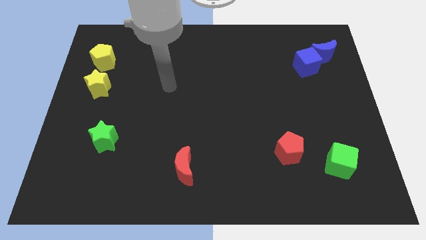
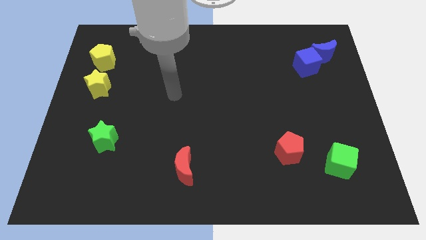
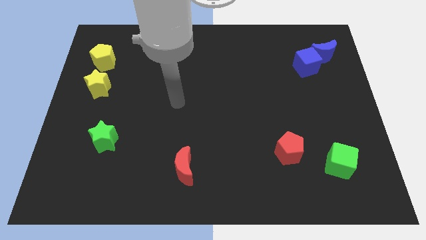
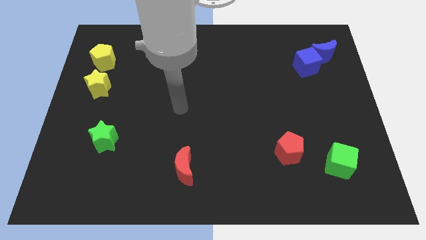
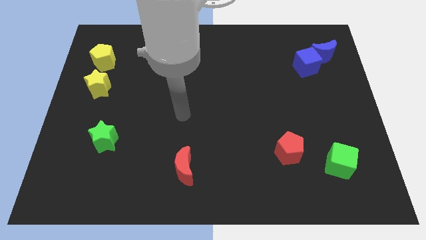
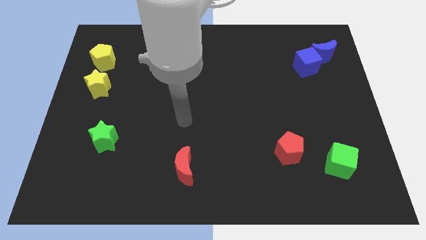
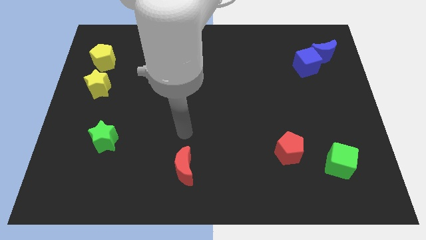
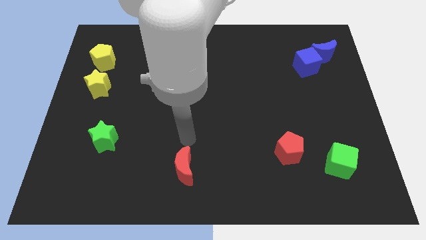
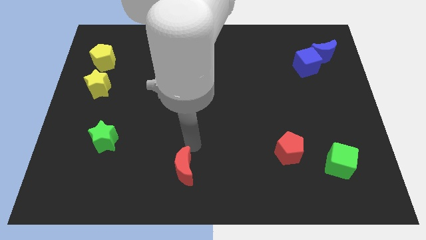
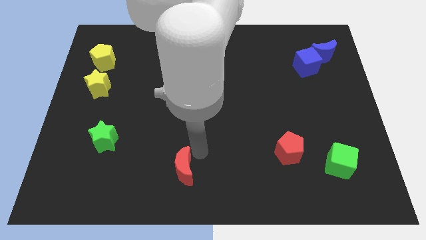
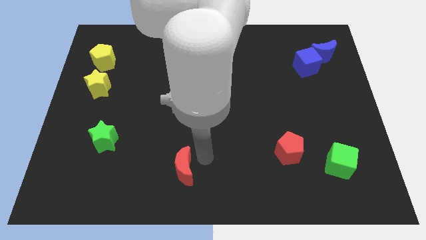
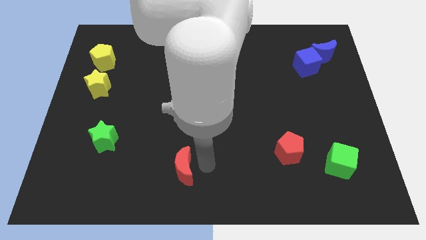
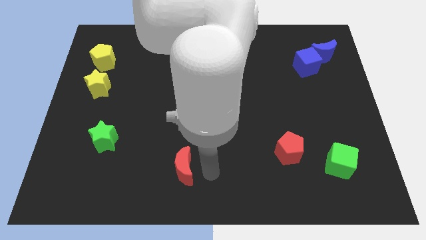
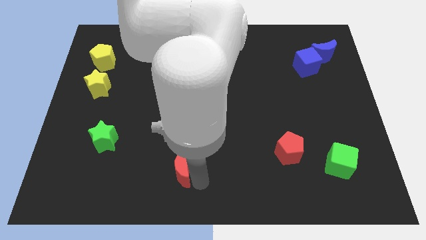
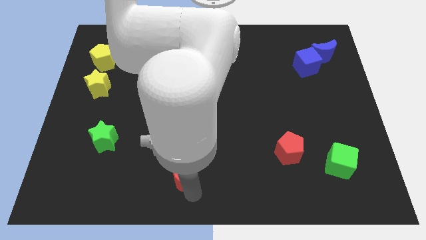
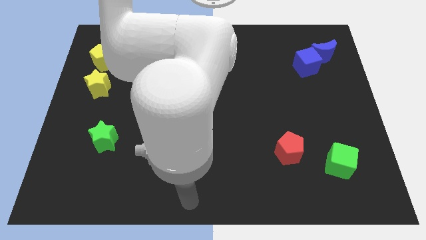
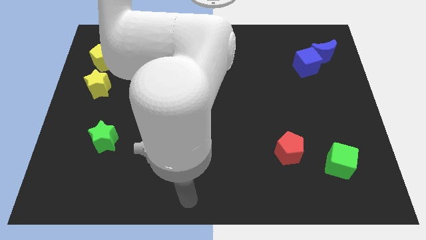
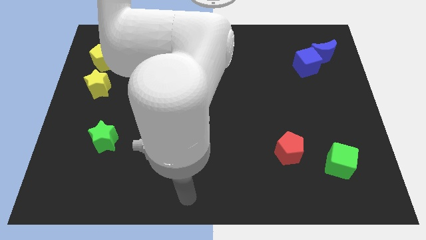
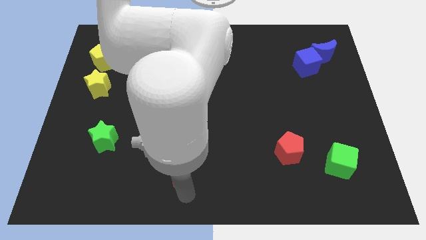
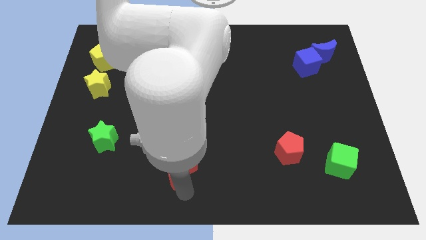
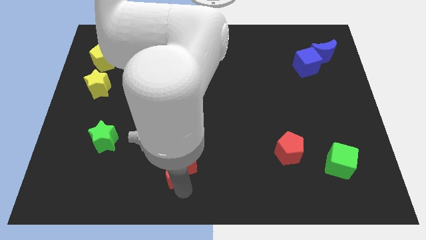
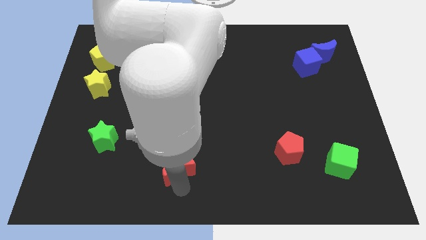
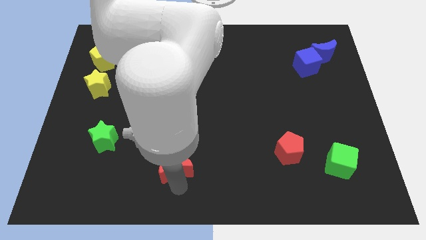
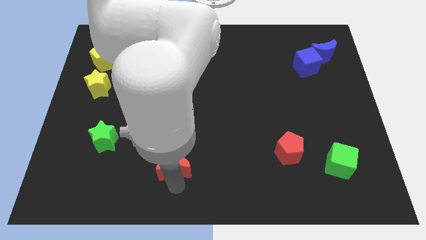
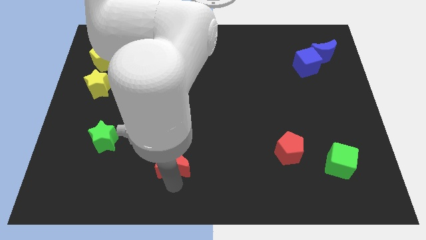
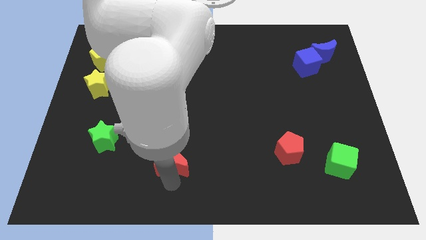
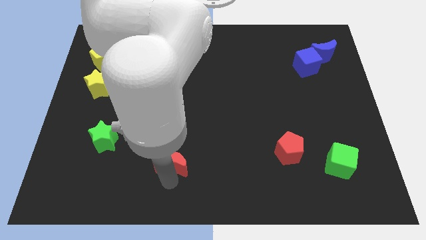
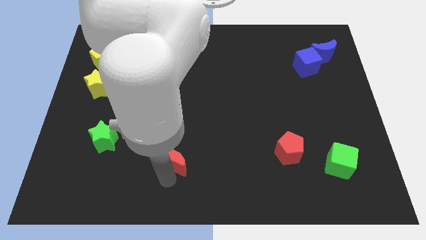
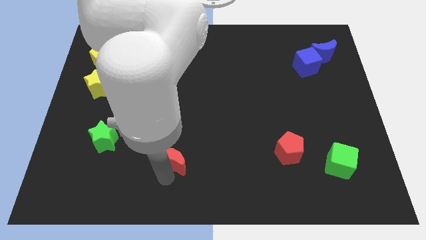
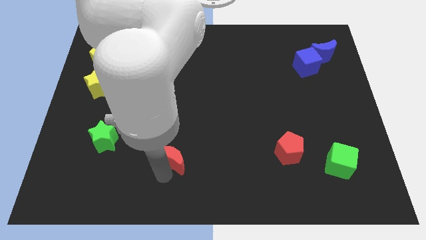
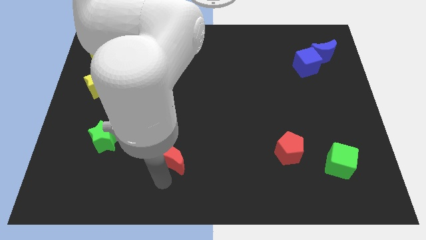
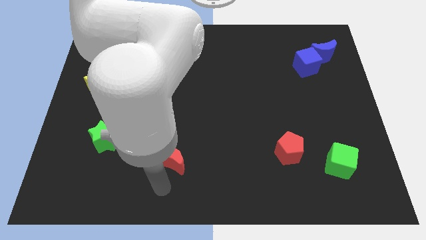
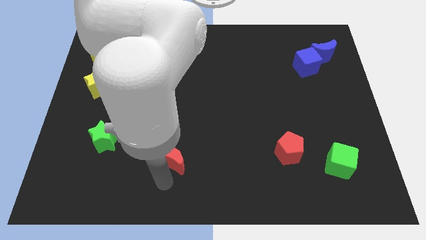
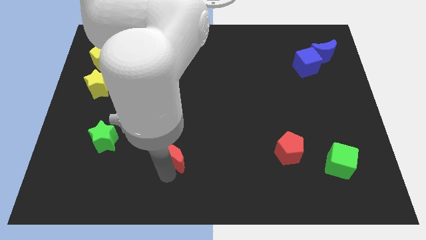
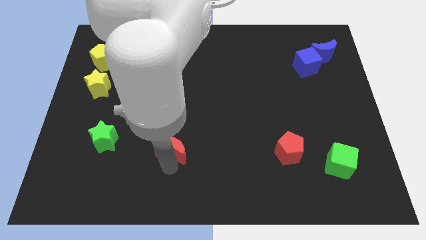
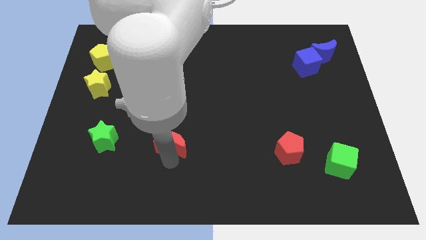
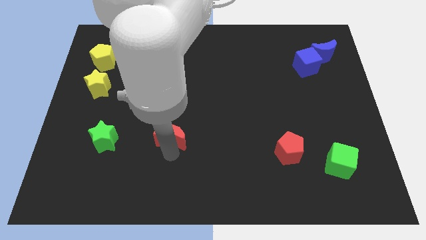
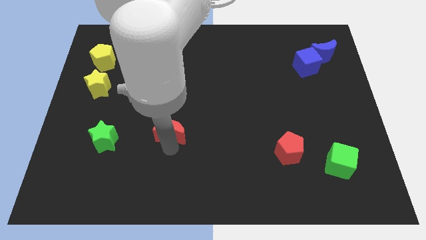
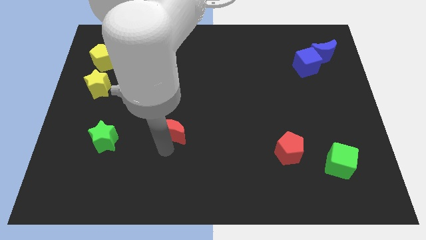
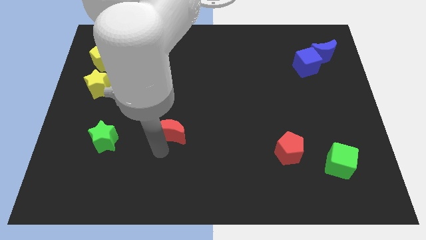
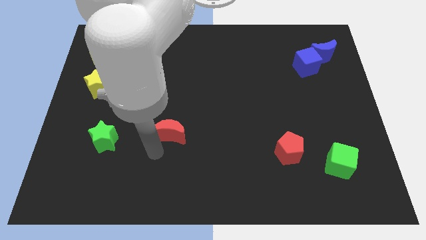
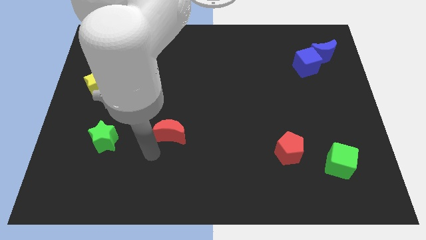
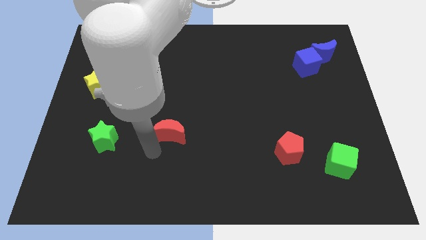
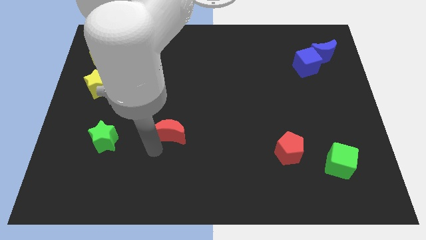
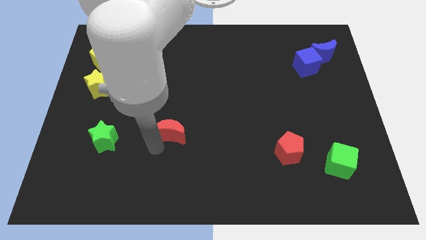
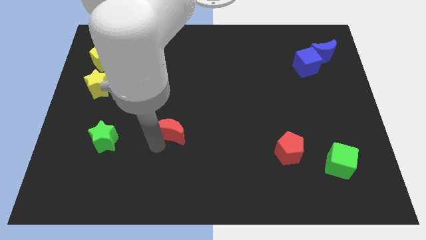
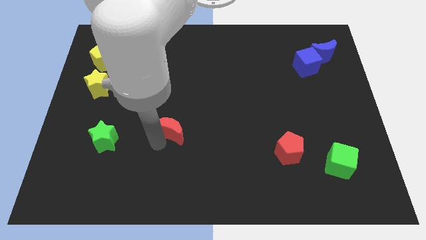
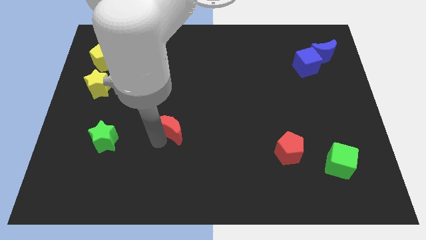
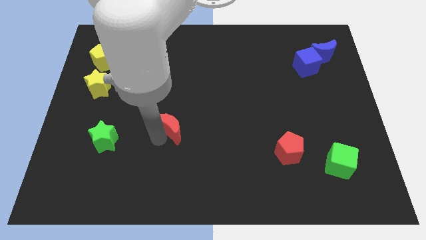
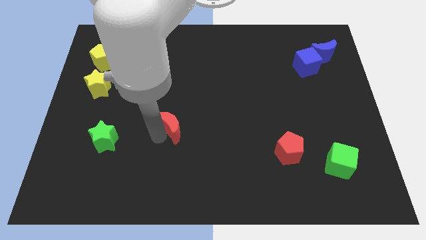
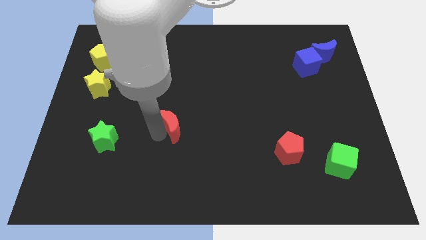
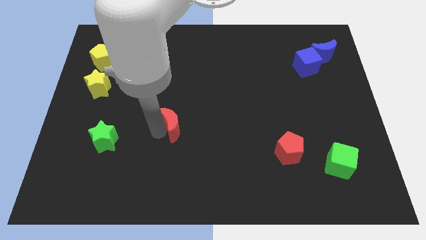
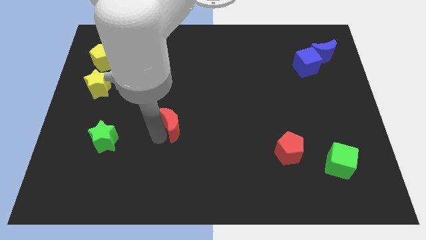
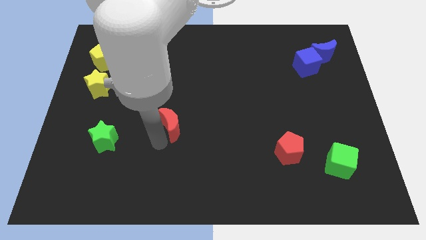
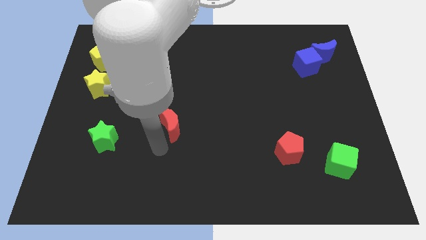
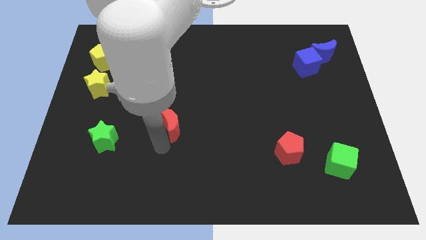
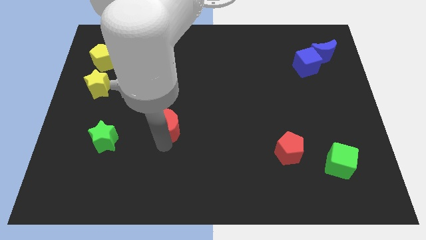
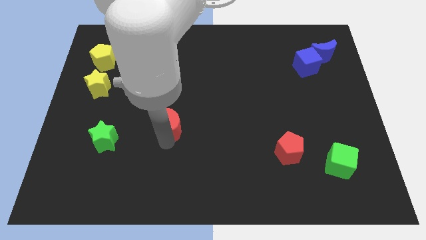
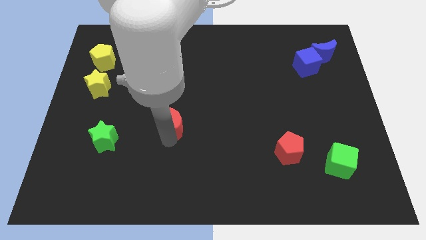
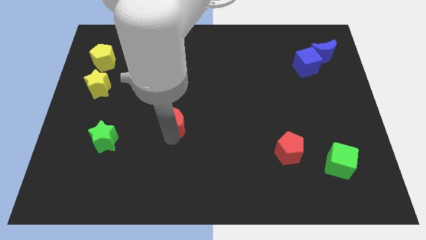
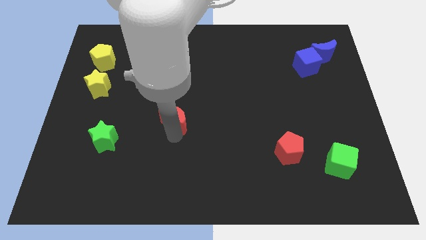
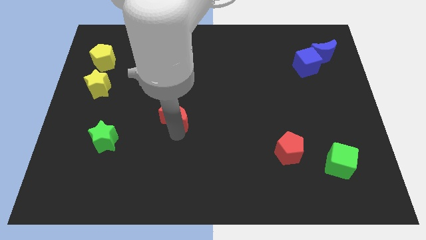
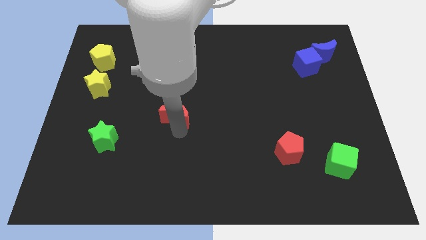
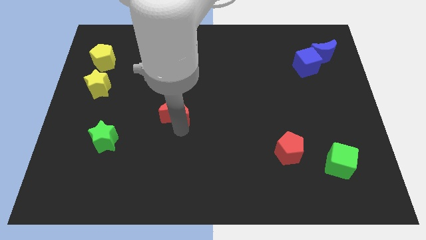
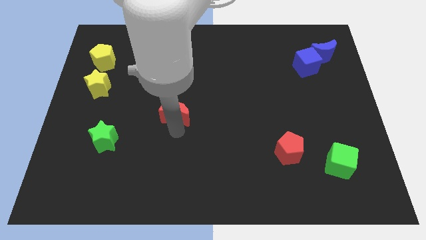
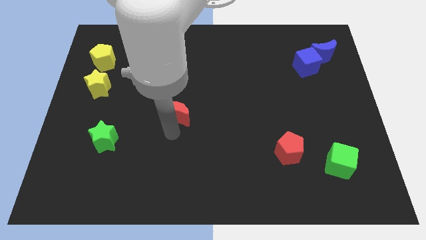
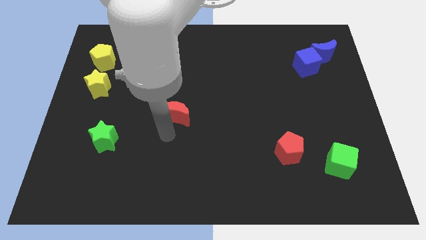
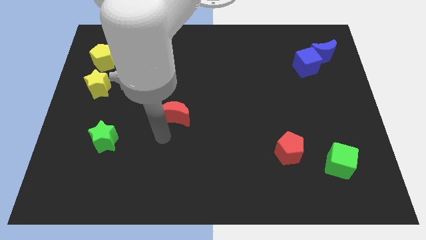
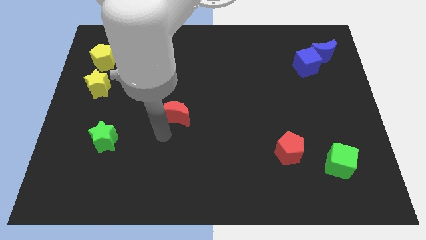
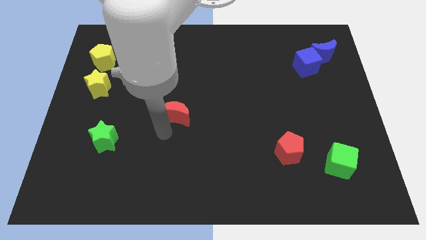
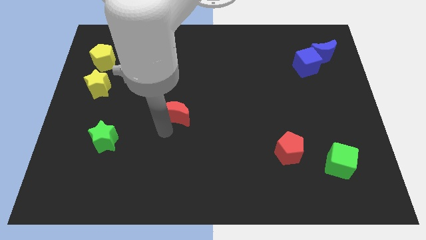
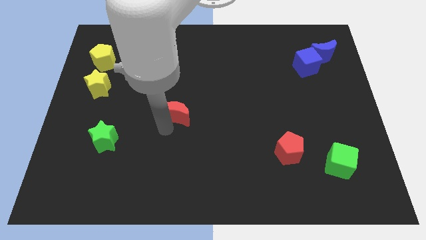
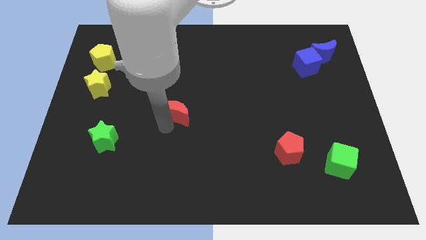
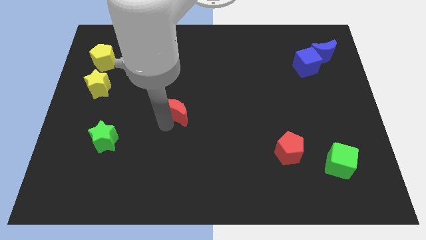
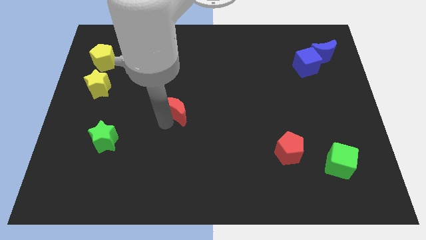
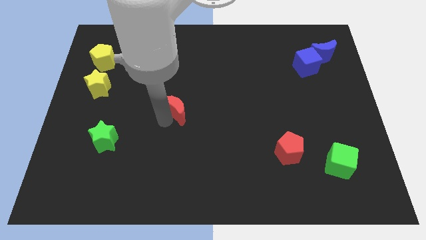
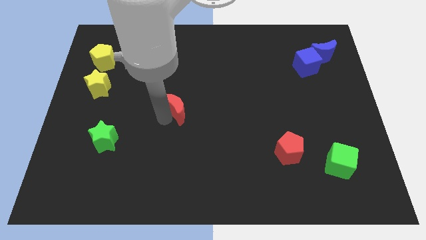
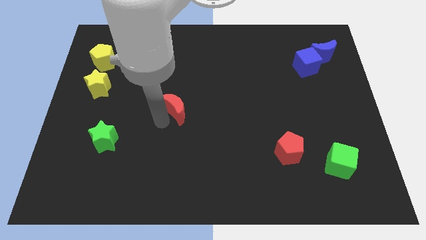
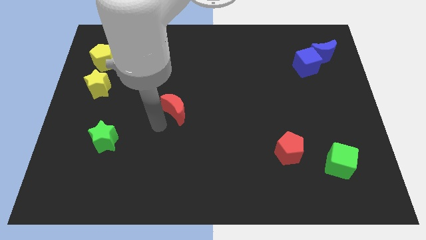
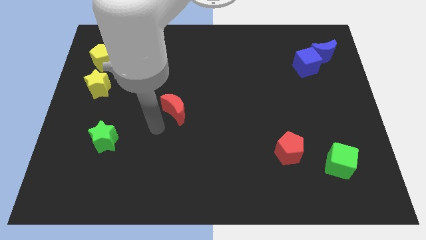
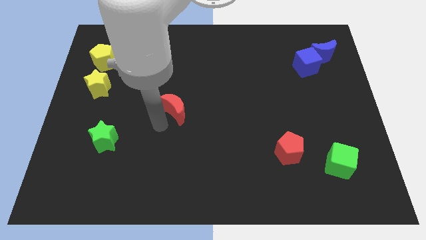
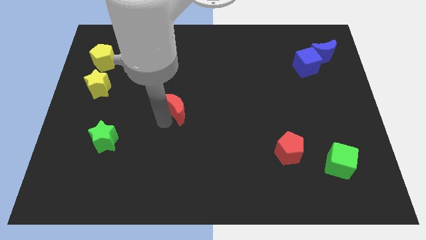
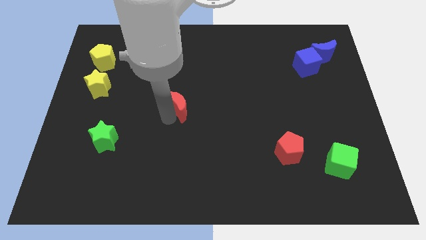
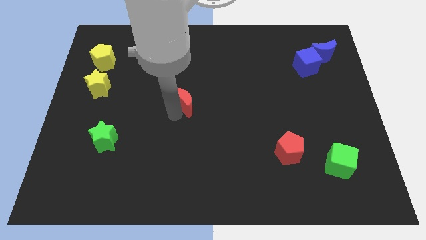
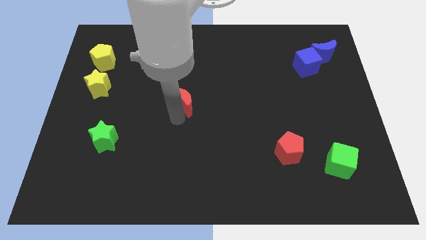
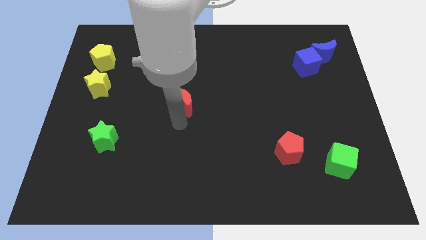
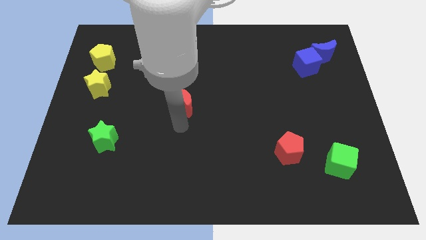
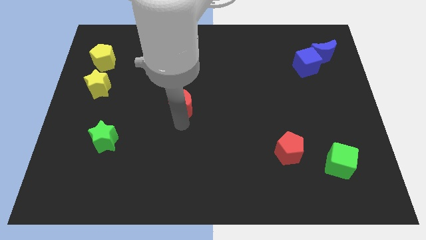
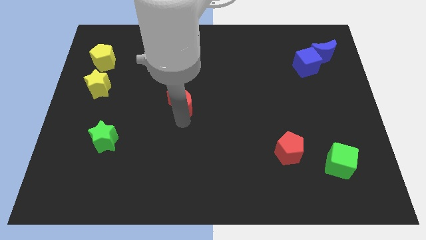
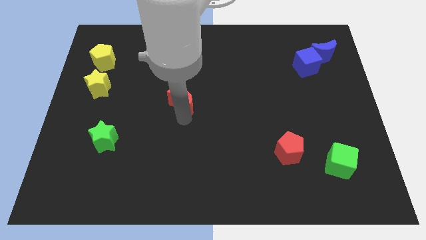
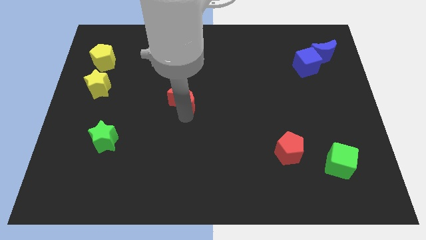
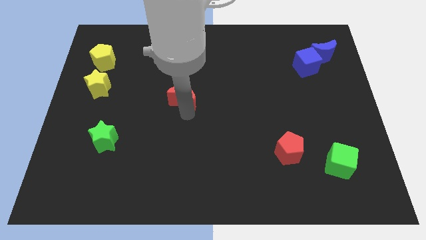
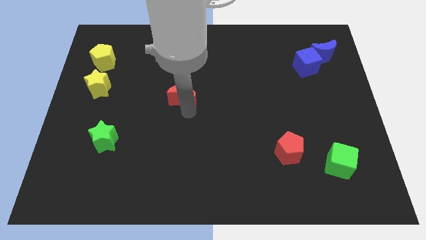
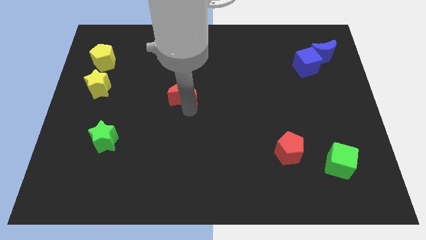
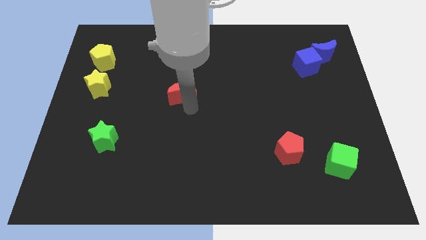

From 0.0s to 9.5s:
move the red moon up
